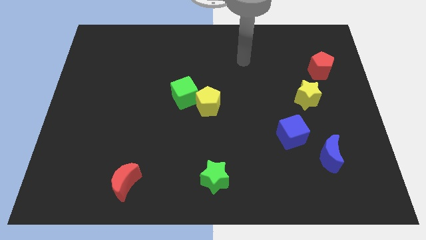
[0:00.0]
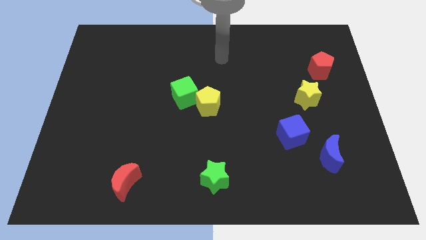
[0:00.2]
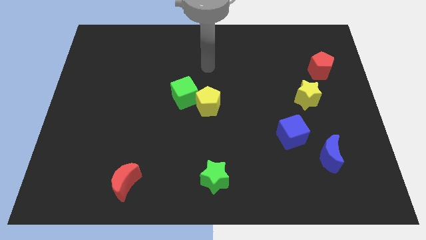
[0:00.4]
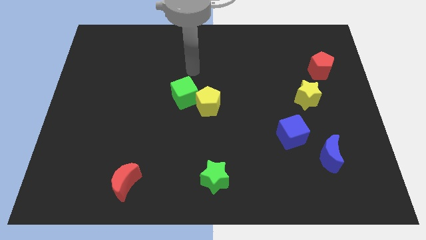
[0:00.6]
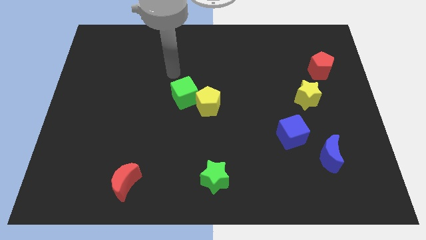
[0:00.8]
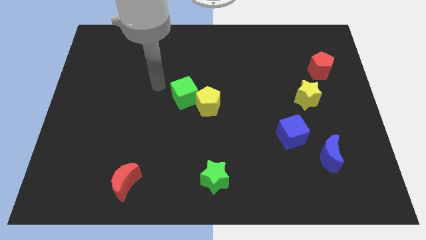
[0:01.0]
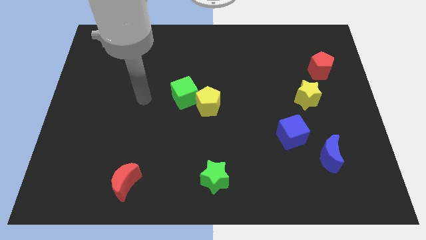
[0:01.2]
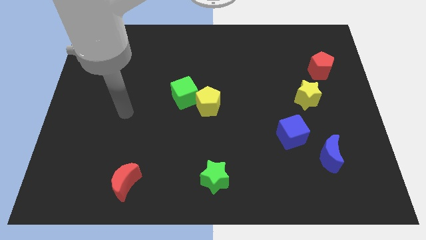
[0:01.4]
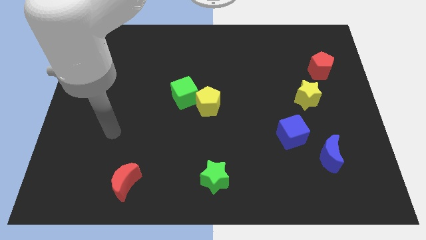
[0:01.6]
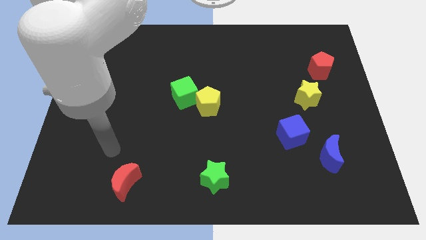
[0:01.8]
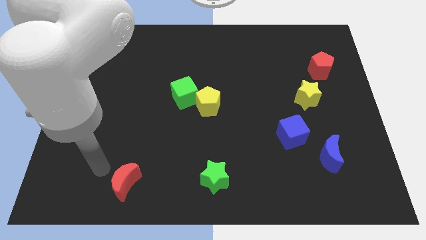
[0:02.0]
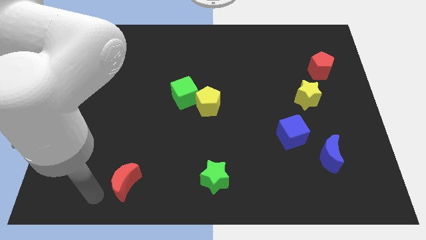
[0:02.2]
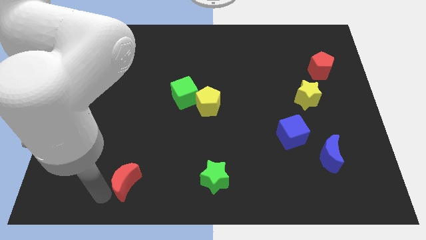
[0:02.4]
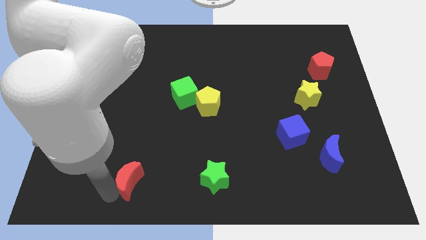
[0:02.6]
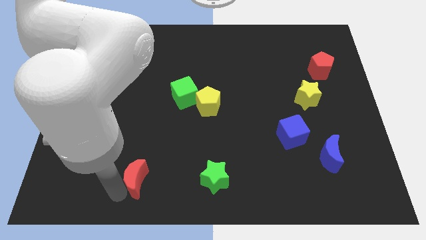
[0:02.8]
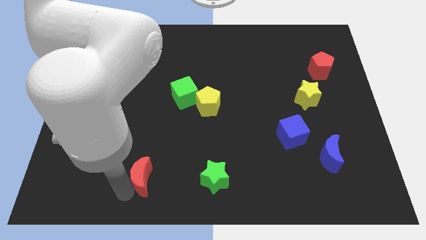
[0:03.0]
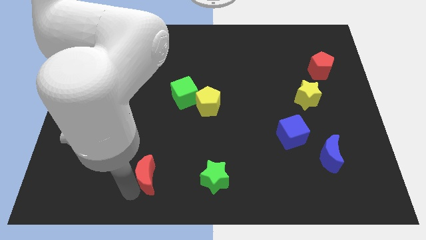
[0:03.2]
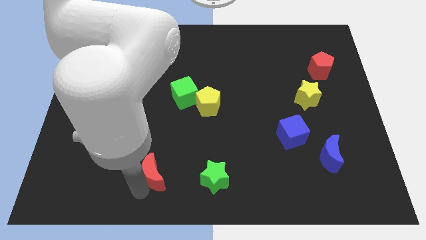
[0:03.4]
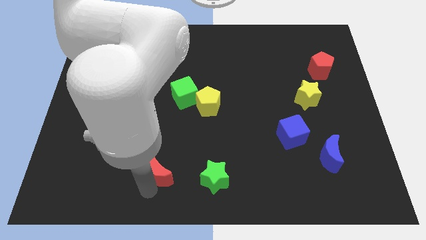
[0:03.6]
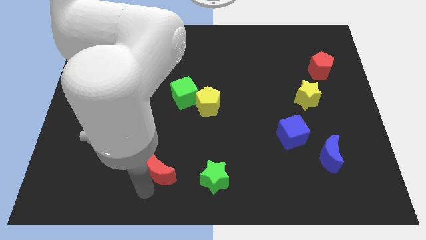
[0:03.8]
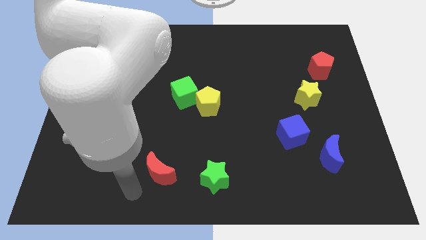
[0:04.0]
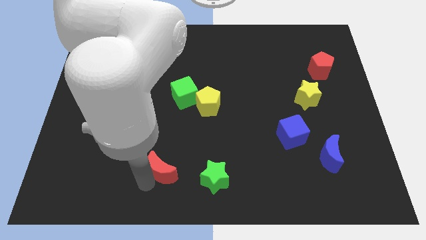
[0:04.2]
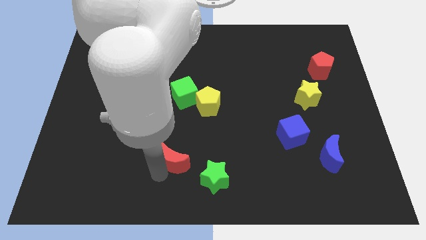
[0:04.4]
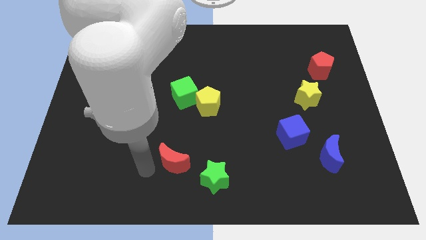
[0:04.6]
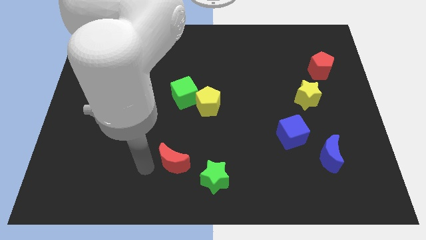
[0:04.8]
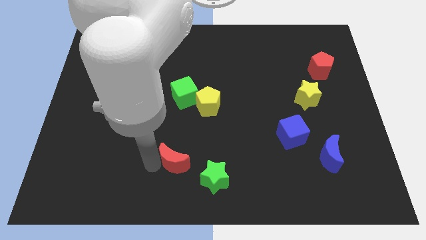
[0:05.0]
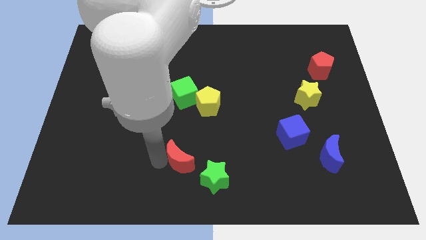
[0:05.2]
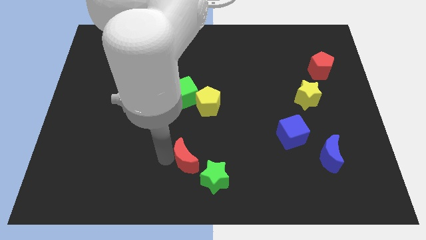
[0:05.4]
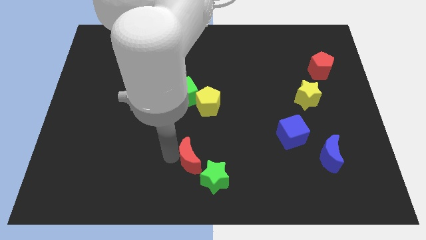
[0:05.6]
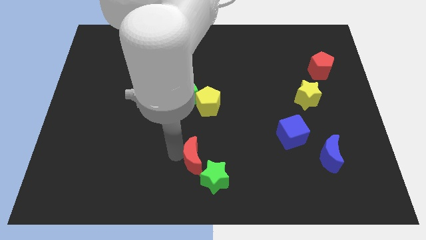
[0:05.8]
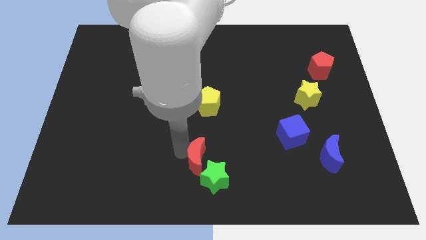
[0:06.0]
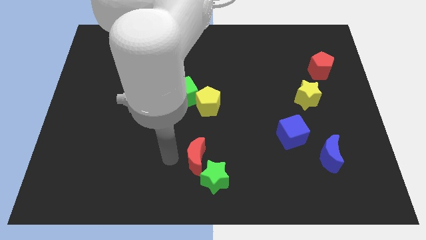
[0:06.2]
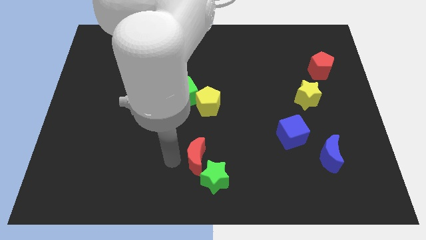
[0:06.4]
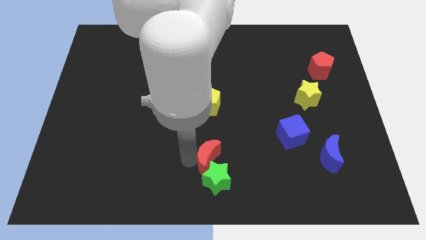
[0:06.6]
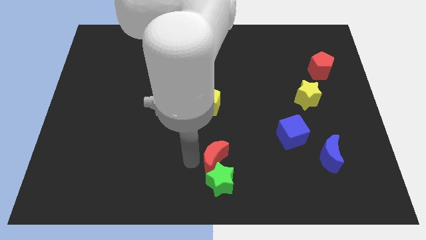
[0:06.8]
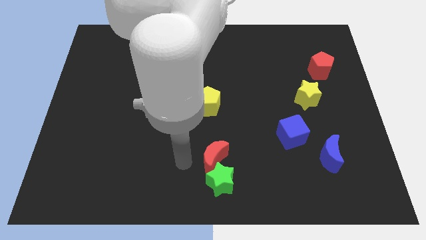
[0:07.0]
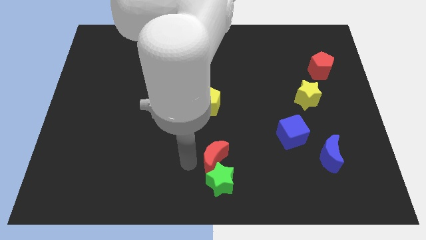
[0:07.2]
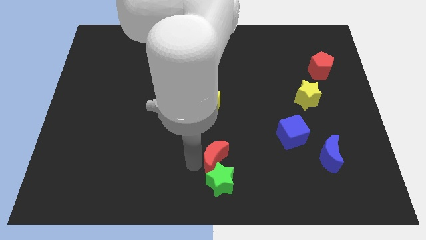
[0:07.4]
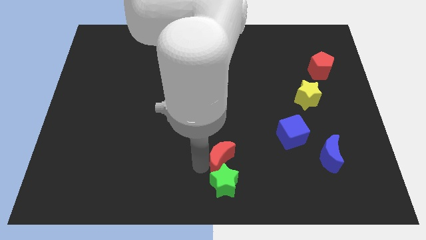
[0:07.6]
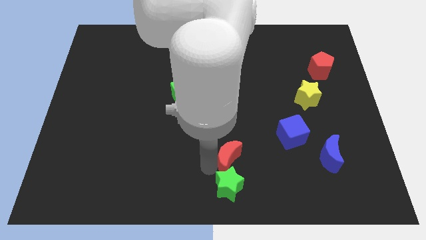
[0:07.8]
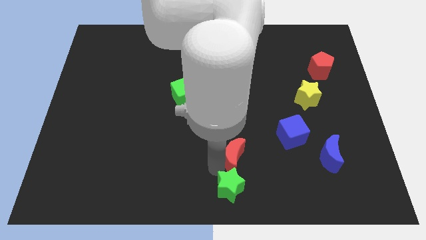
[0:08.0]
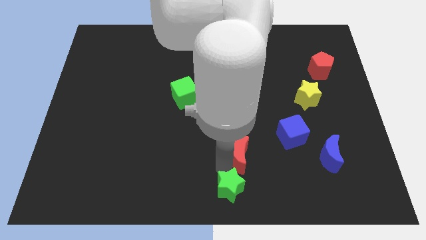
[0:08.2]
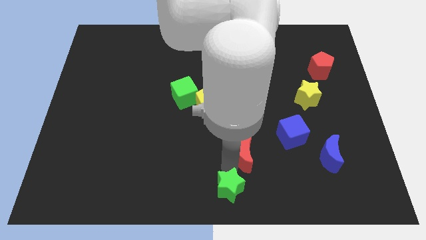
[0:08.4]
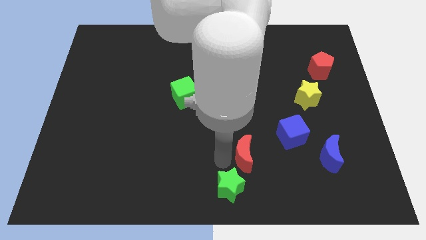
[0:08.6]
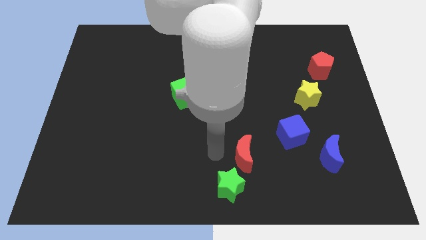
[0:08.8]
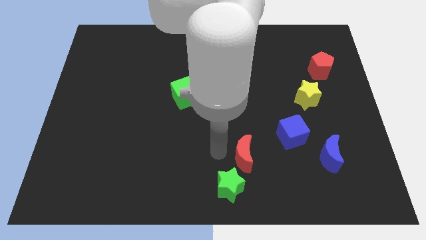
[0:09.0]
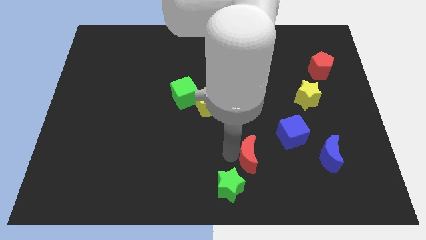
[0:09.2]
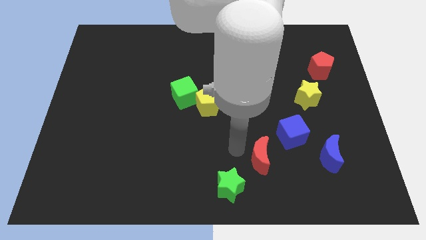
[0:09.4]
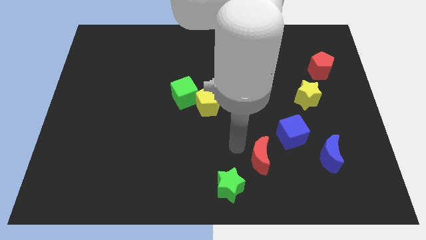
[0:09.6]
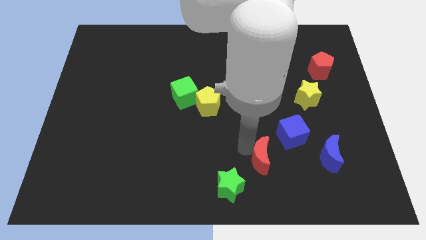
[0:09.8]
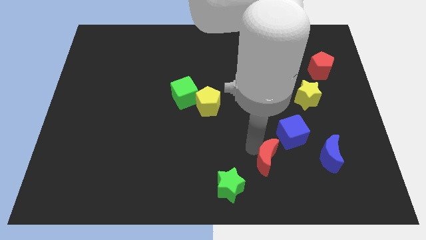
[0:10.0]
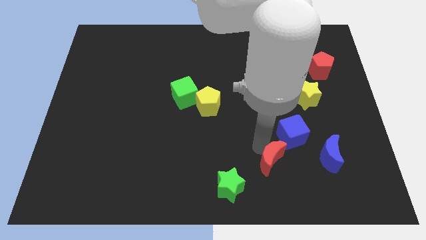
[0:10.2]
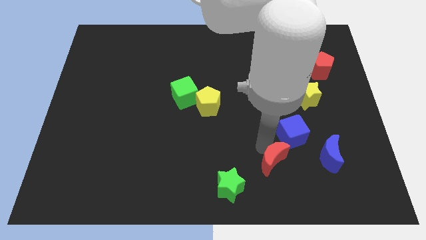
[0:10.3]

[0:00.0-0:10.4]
move the red moon to the bottom side of the blue cube

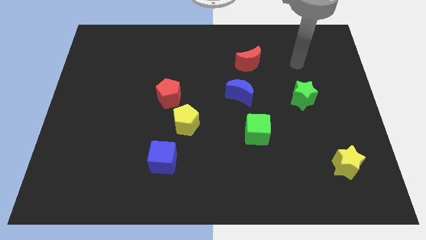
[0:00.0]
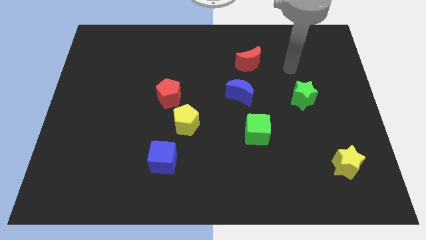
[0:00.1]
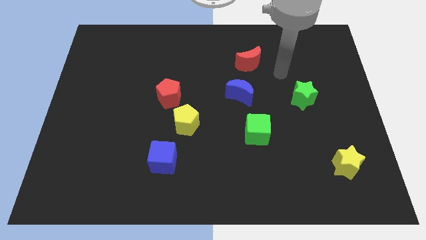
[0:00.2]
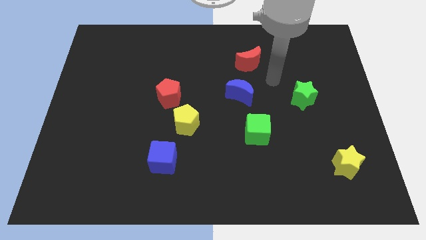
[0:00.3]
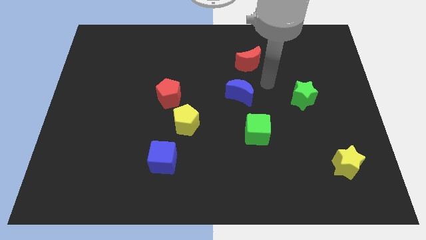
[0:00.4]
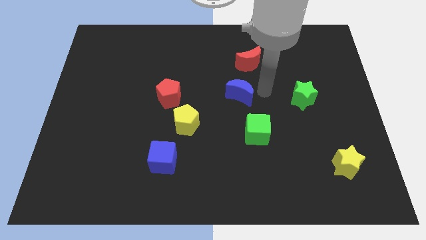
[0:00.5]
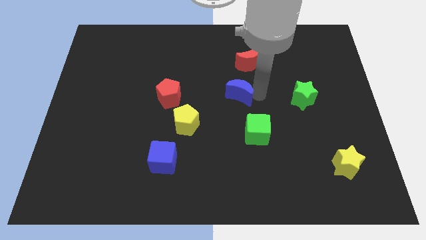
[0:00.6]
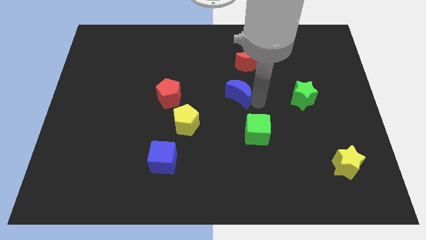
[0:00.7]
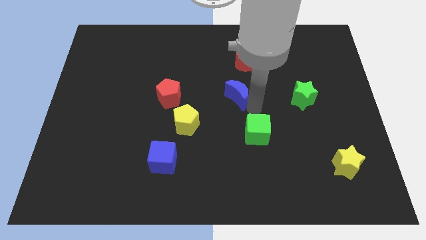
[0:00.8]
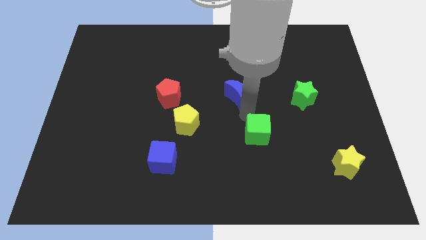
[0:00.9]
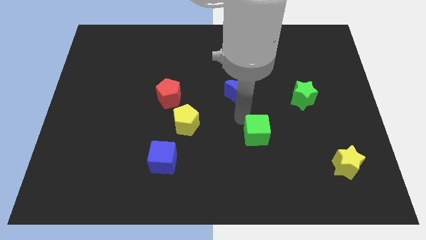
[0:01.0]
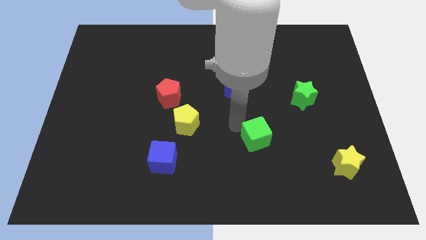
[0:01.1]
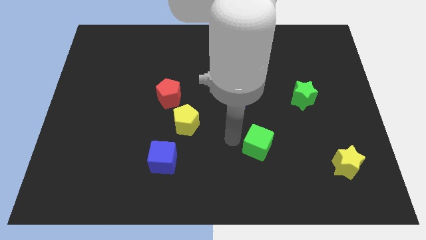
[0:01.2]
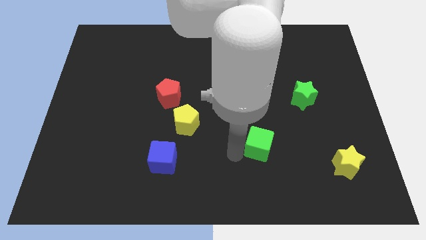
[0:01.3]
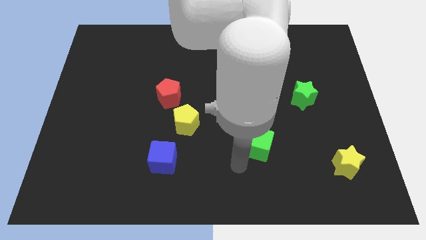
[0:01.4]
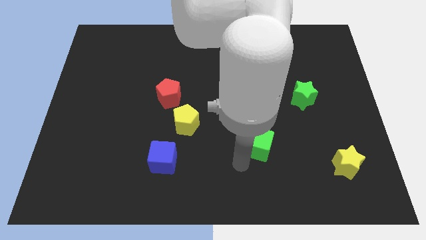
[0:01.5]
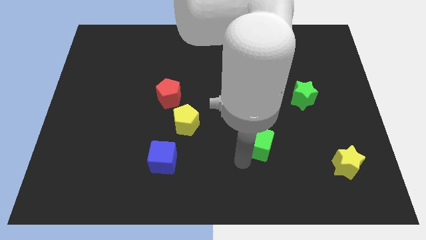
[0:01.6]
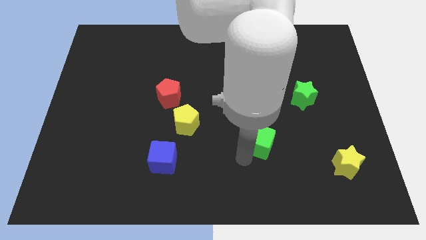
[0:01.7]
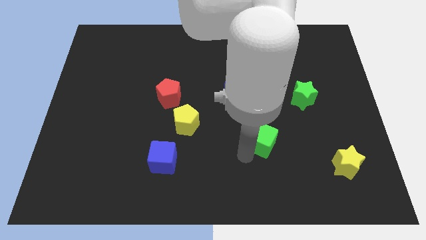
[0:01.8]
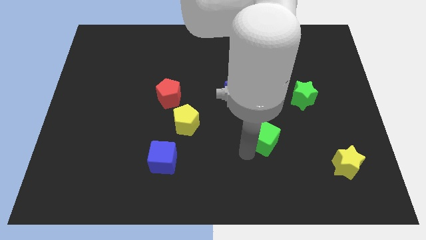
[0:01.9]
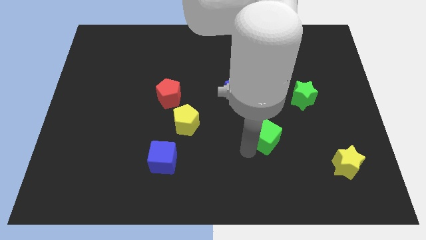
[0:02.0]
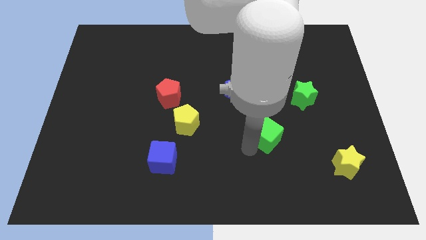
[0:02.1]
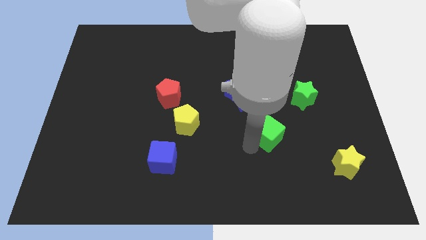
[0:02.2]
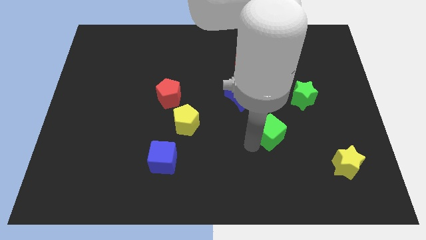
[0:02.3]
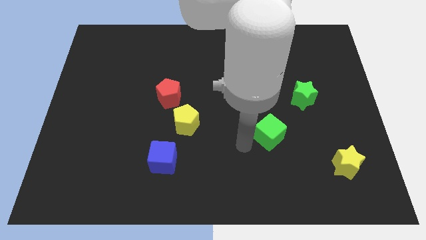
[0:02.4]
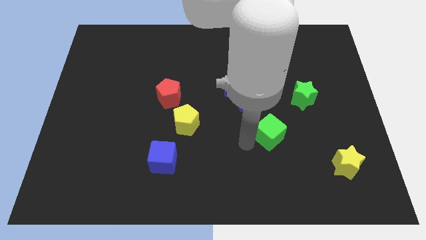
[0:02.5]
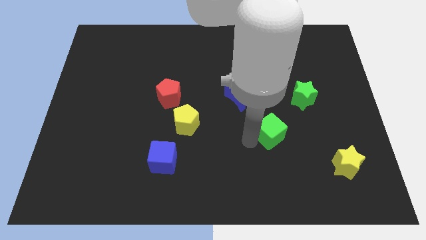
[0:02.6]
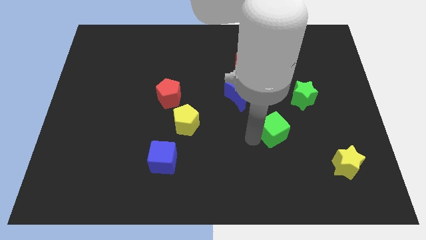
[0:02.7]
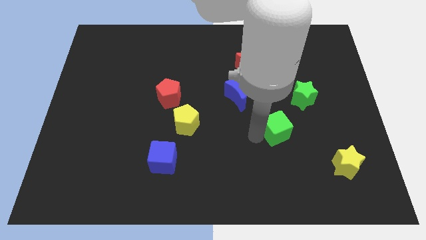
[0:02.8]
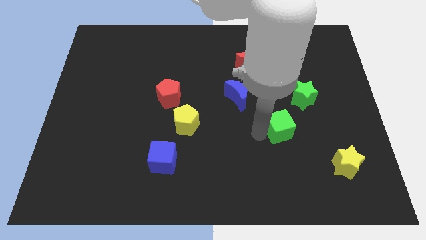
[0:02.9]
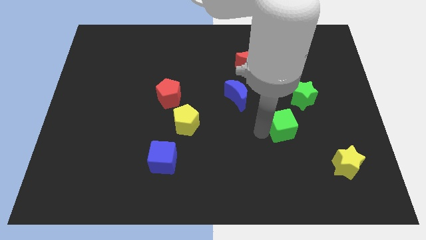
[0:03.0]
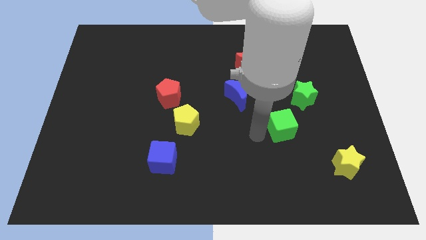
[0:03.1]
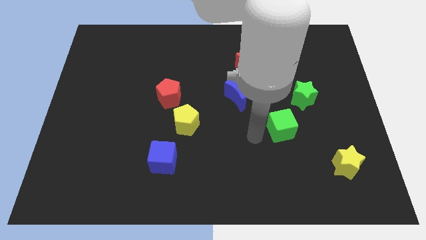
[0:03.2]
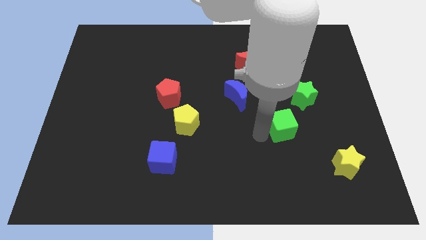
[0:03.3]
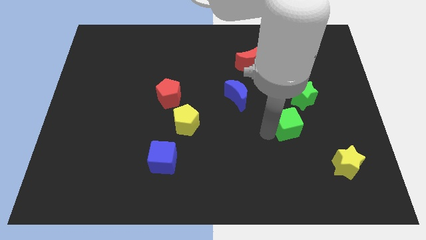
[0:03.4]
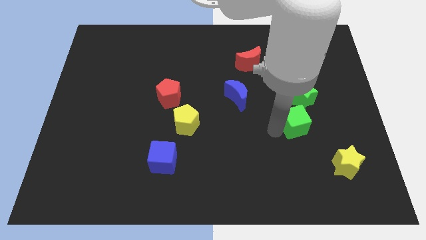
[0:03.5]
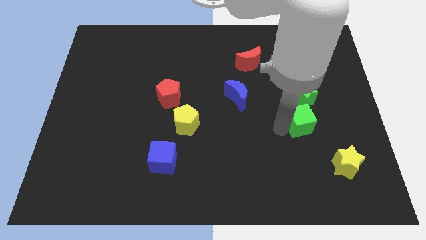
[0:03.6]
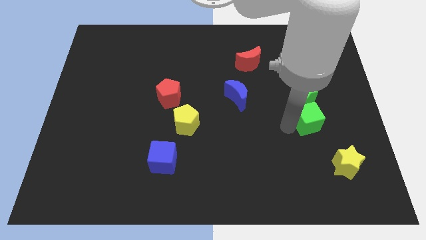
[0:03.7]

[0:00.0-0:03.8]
move the green cube to the bottom right of the green star
